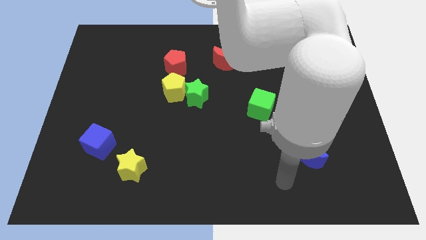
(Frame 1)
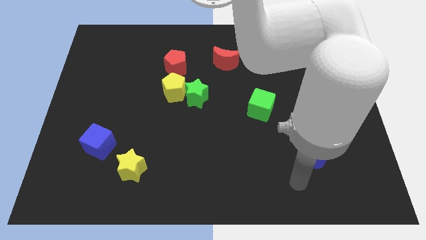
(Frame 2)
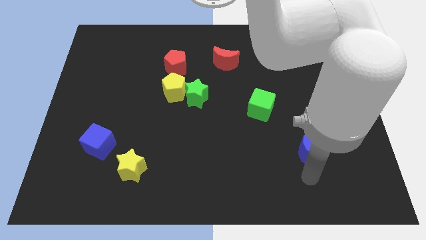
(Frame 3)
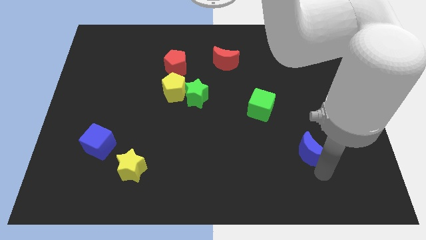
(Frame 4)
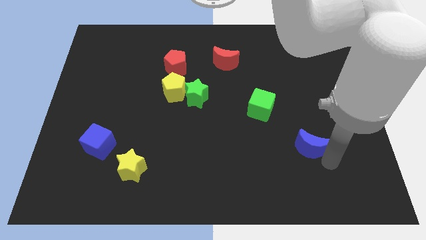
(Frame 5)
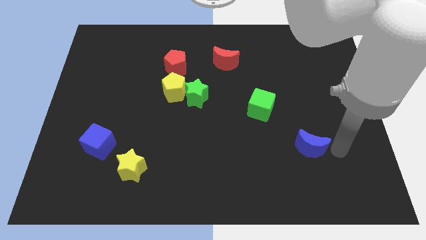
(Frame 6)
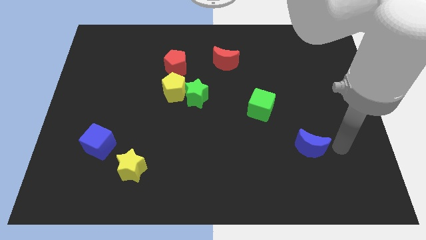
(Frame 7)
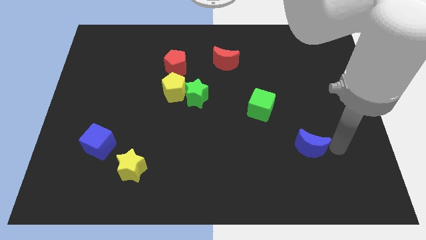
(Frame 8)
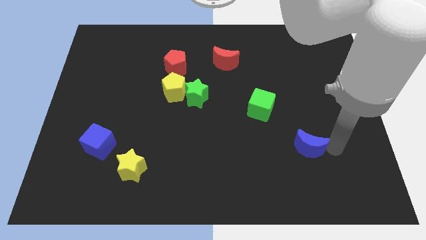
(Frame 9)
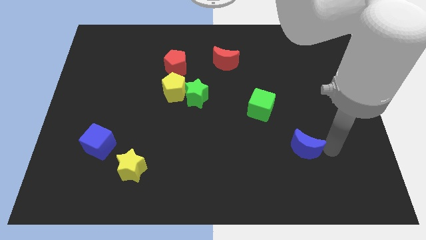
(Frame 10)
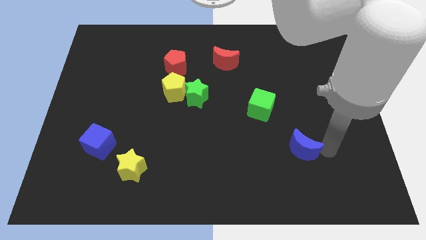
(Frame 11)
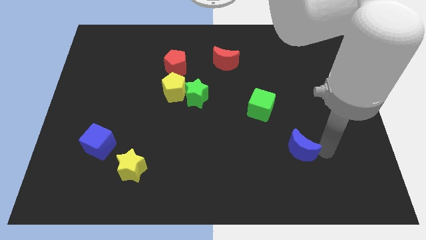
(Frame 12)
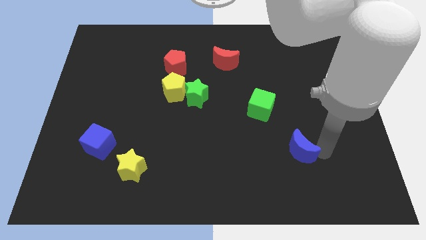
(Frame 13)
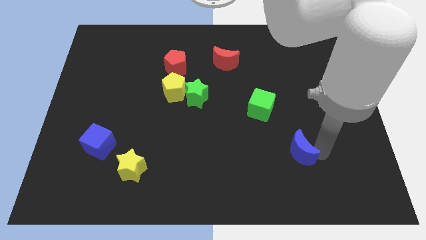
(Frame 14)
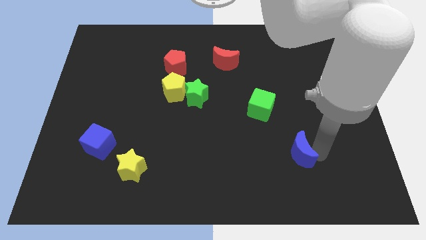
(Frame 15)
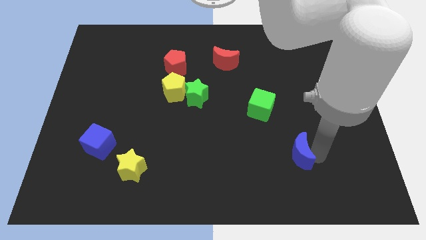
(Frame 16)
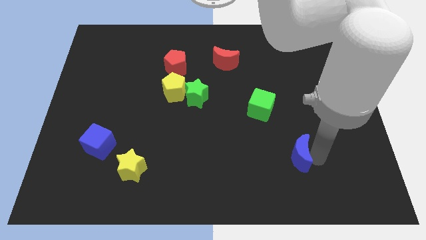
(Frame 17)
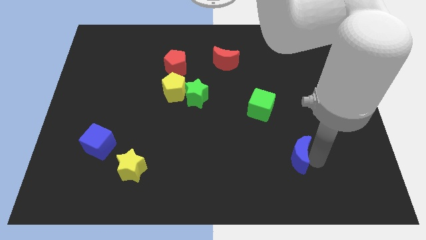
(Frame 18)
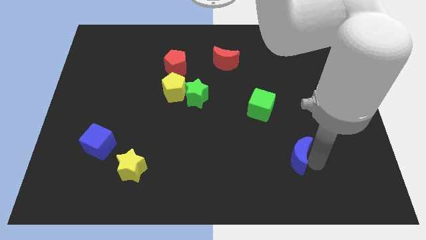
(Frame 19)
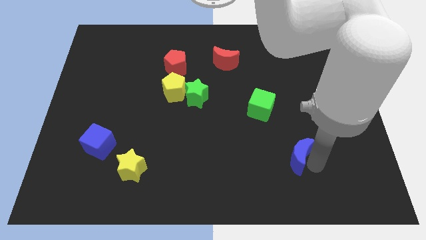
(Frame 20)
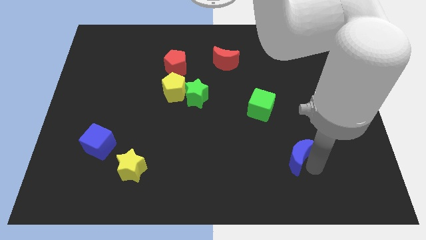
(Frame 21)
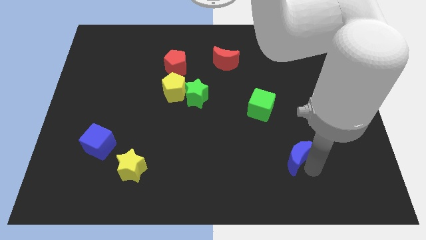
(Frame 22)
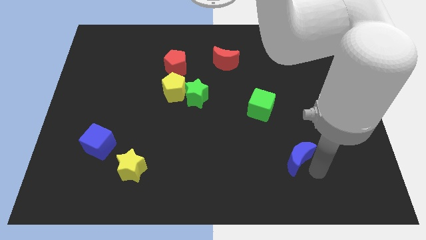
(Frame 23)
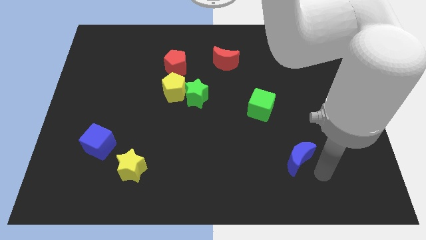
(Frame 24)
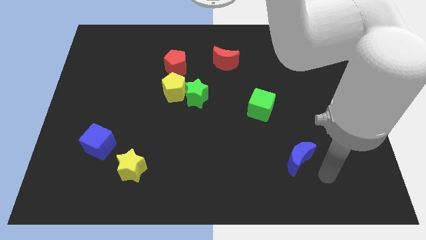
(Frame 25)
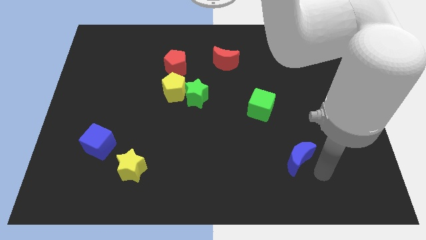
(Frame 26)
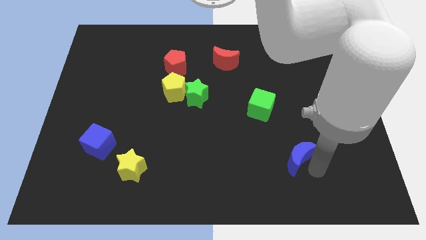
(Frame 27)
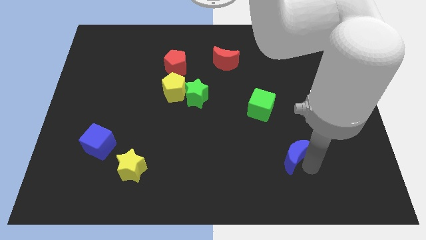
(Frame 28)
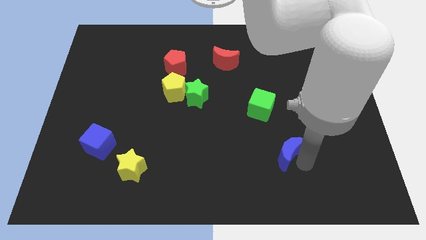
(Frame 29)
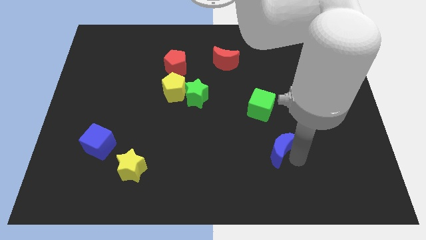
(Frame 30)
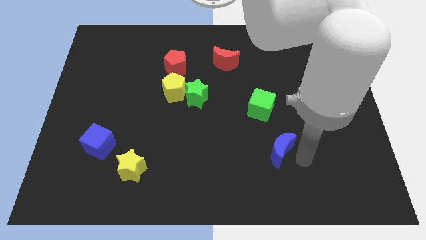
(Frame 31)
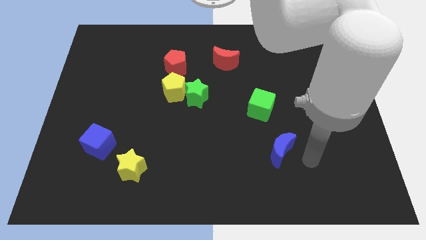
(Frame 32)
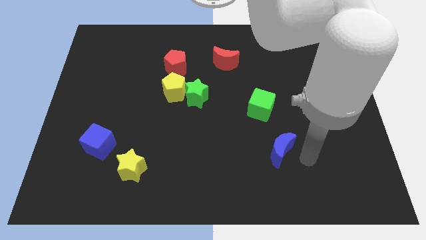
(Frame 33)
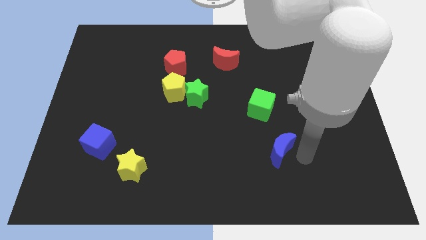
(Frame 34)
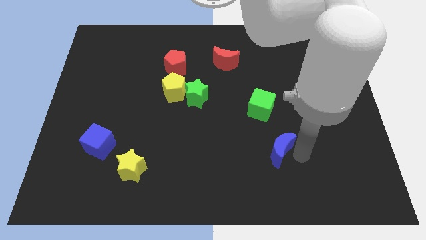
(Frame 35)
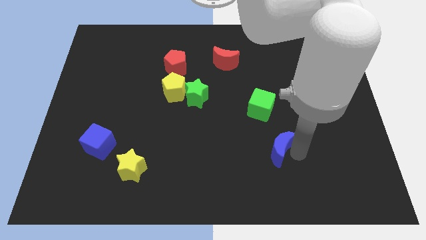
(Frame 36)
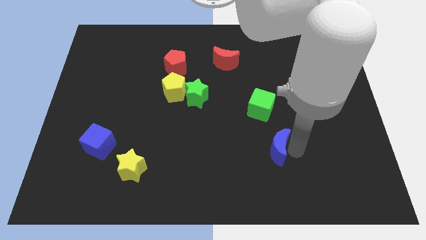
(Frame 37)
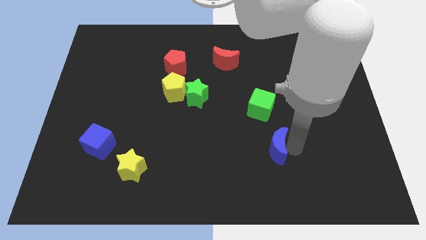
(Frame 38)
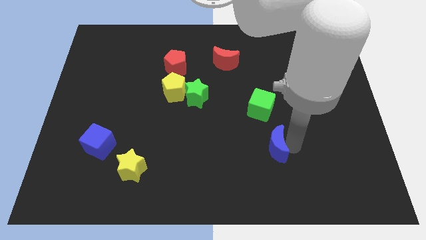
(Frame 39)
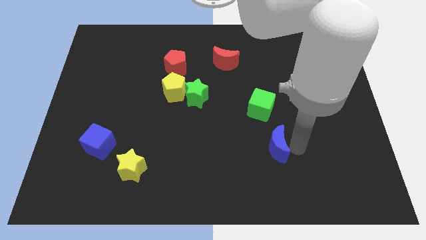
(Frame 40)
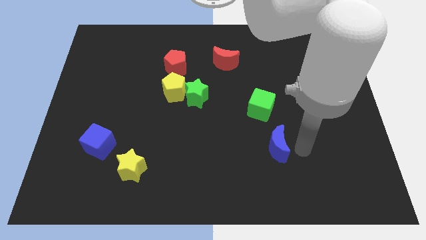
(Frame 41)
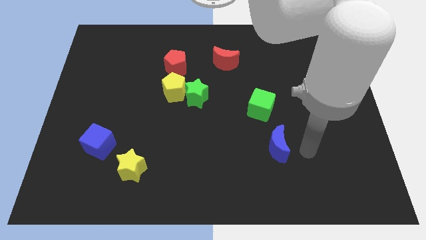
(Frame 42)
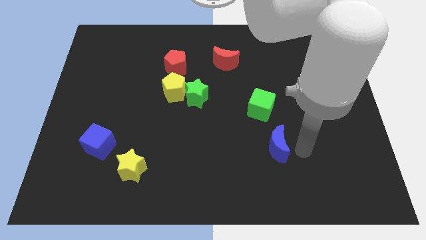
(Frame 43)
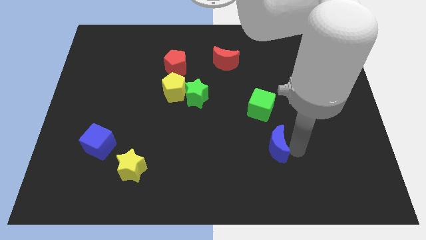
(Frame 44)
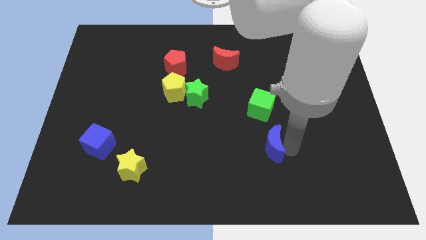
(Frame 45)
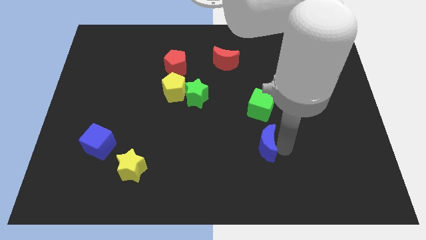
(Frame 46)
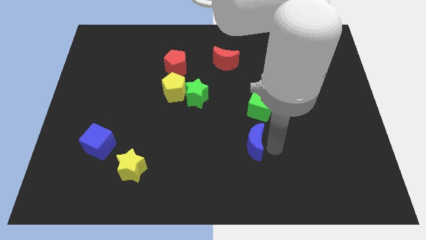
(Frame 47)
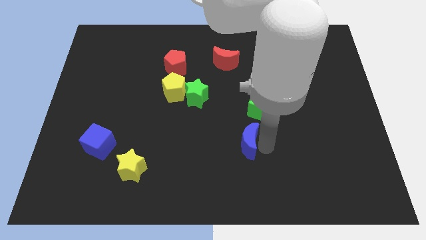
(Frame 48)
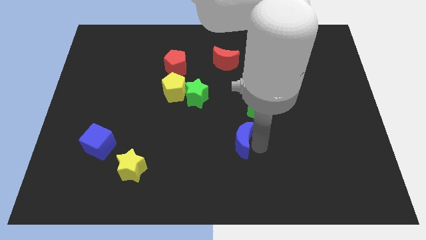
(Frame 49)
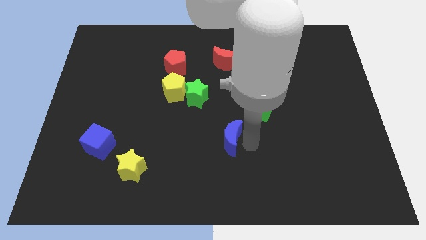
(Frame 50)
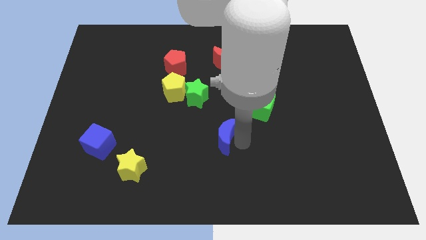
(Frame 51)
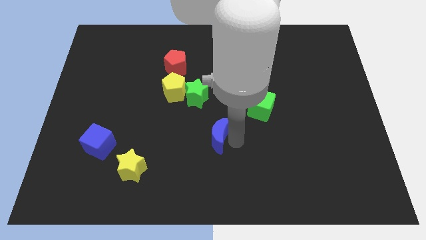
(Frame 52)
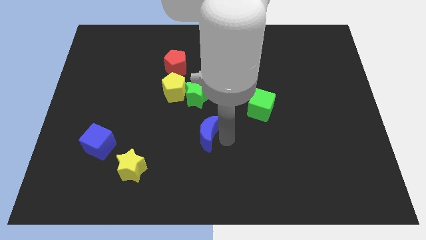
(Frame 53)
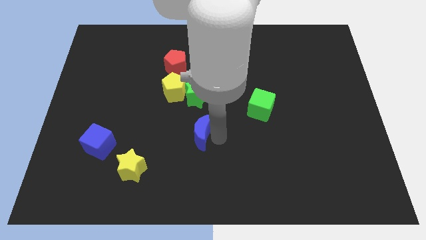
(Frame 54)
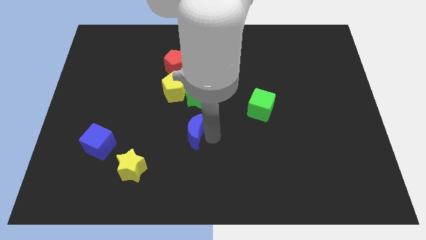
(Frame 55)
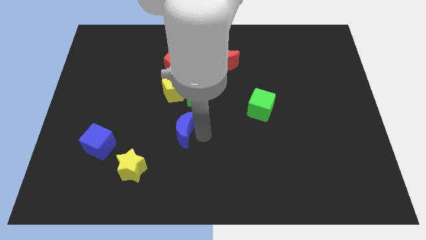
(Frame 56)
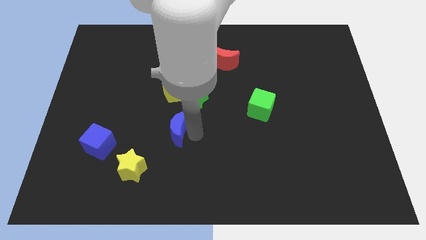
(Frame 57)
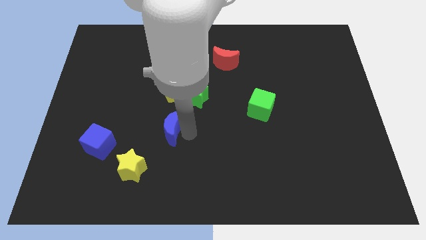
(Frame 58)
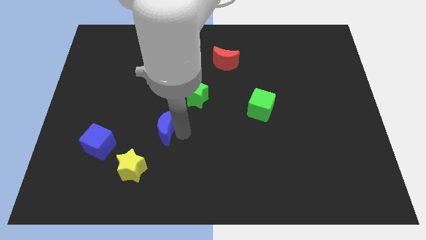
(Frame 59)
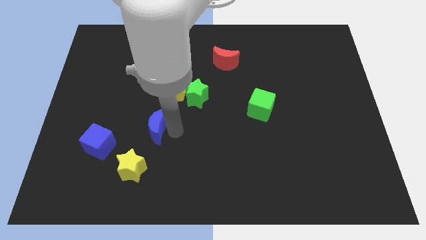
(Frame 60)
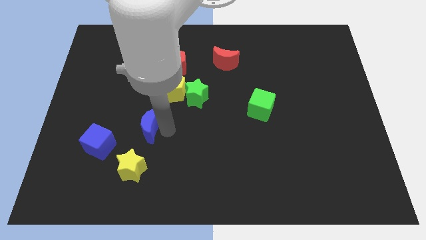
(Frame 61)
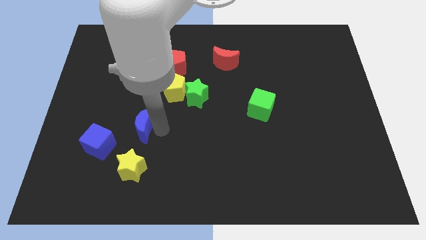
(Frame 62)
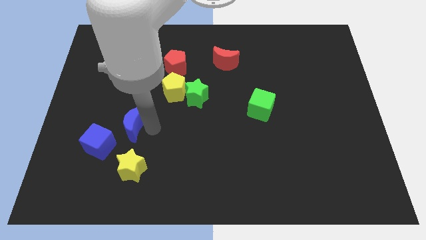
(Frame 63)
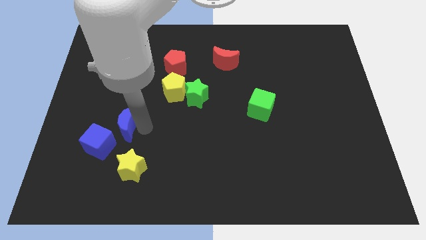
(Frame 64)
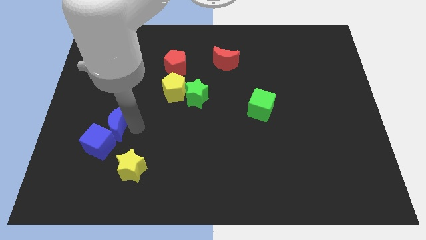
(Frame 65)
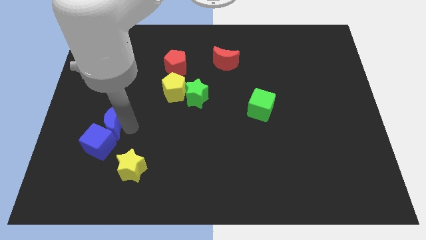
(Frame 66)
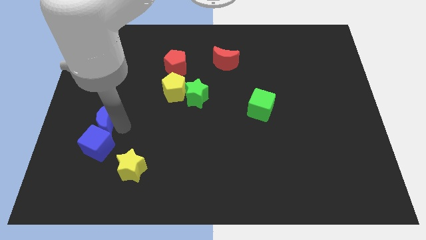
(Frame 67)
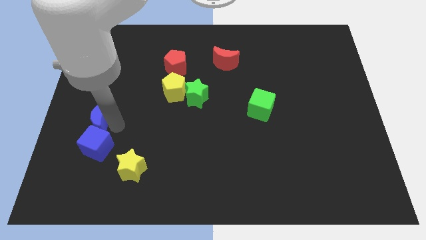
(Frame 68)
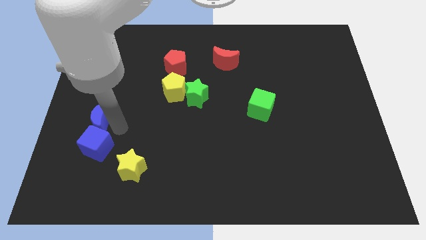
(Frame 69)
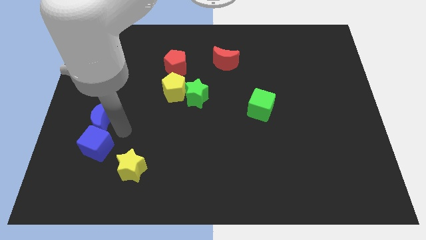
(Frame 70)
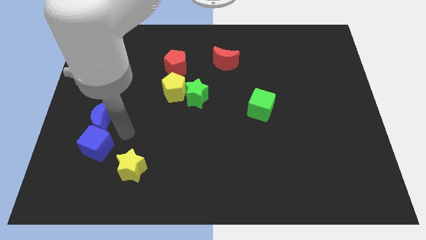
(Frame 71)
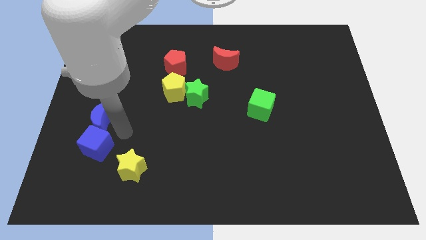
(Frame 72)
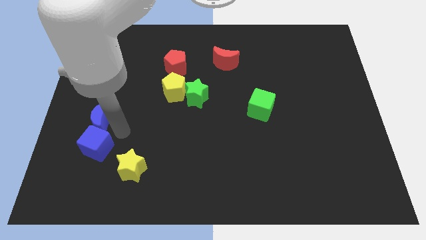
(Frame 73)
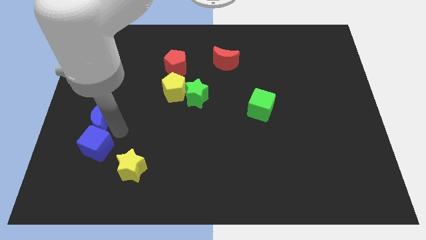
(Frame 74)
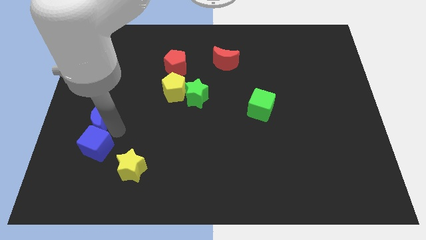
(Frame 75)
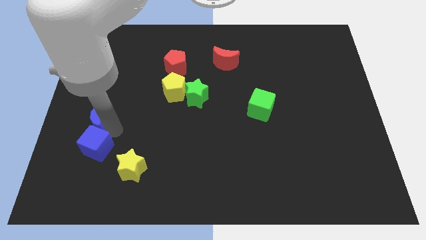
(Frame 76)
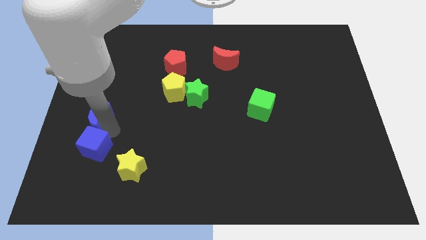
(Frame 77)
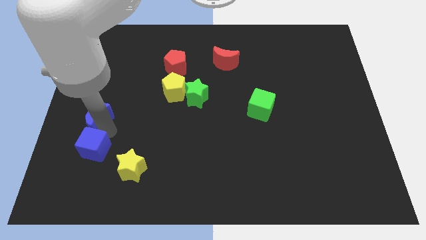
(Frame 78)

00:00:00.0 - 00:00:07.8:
put the blue moon to the left side
